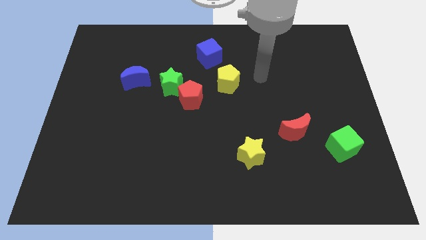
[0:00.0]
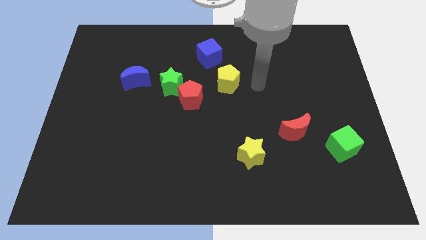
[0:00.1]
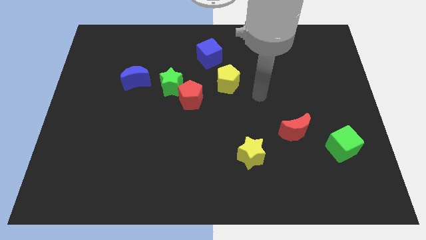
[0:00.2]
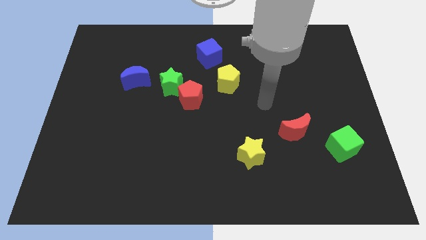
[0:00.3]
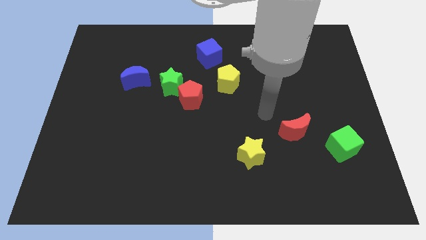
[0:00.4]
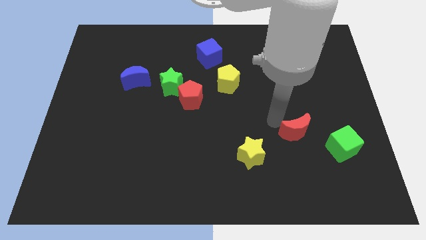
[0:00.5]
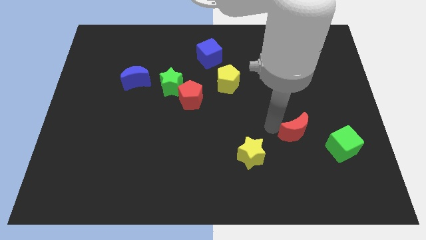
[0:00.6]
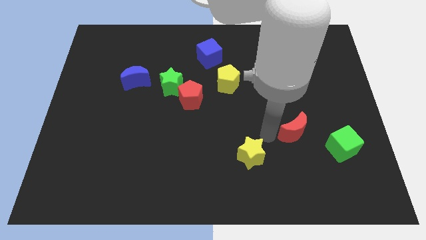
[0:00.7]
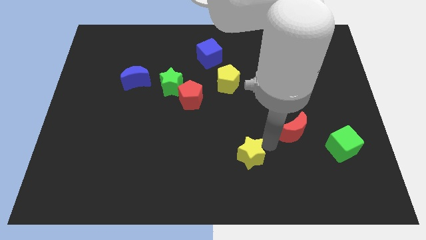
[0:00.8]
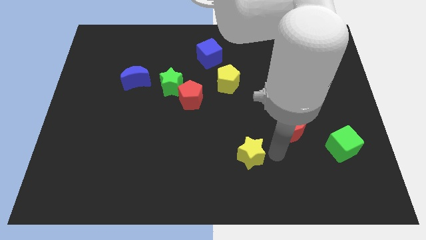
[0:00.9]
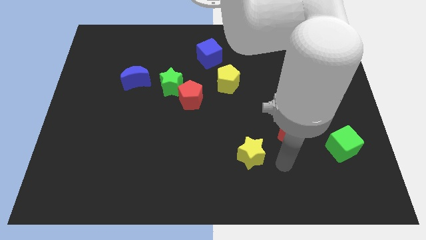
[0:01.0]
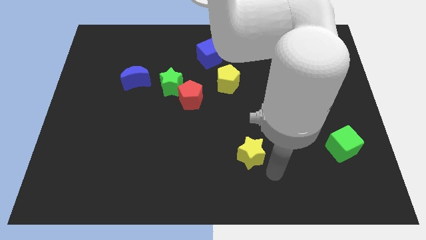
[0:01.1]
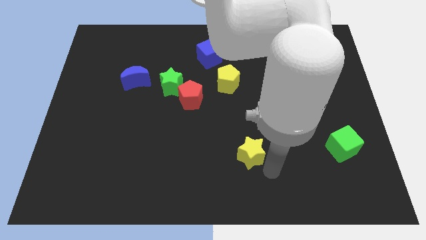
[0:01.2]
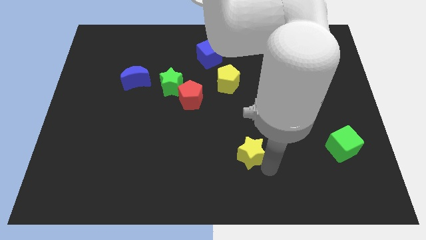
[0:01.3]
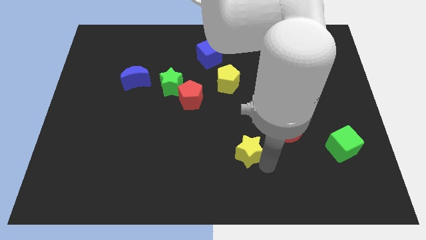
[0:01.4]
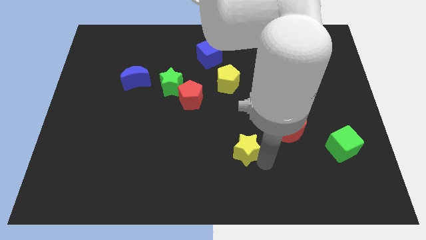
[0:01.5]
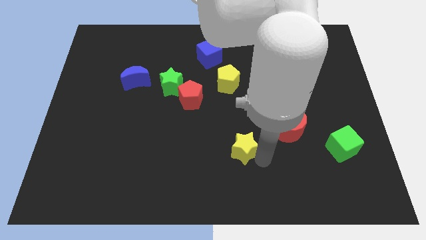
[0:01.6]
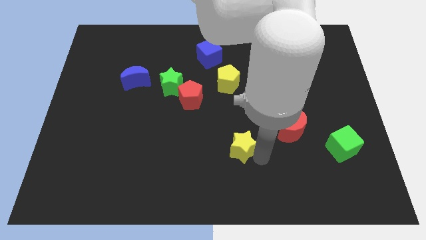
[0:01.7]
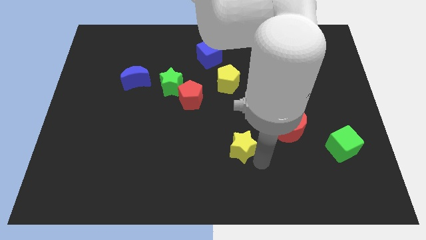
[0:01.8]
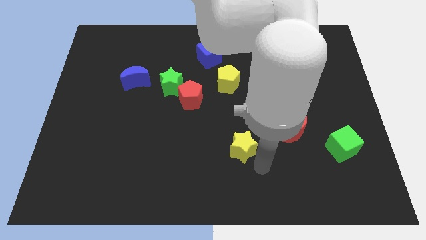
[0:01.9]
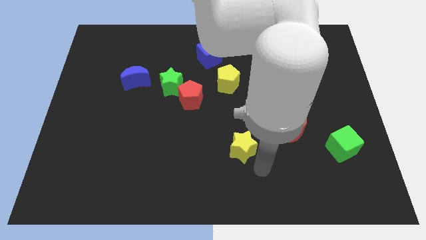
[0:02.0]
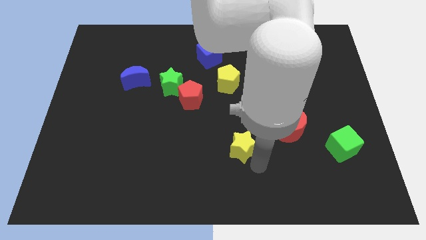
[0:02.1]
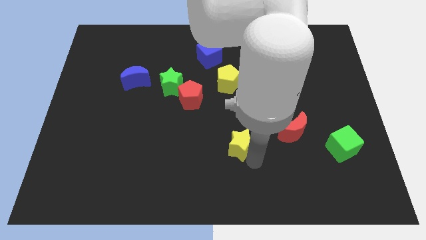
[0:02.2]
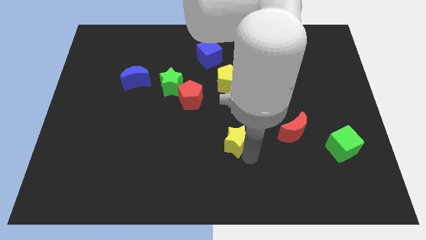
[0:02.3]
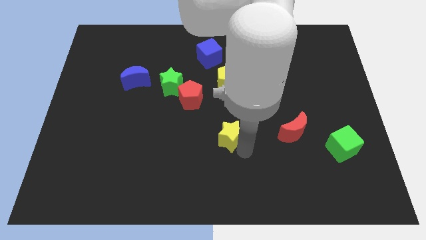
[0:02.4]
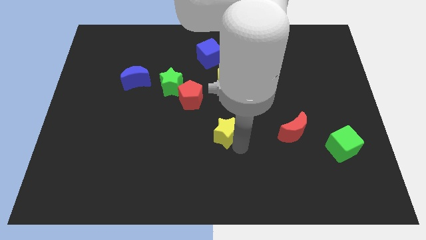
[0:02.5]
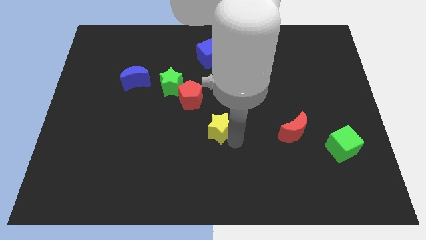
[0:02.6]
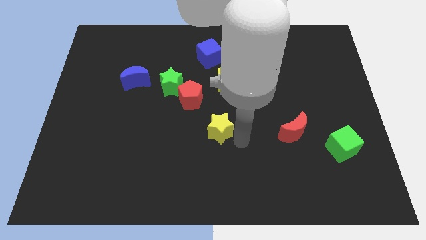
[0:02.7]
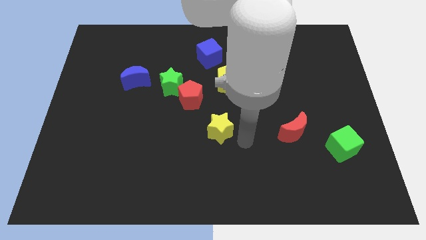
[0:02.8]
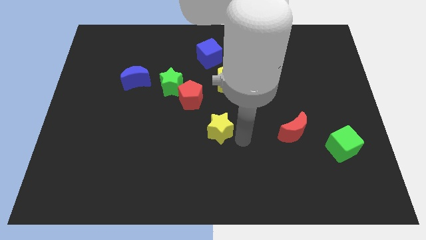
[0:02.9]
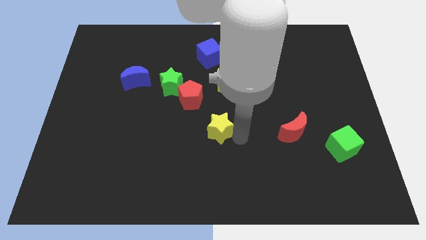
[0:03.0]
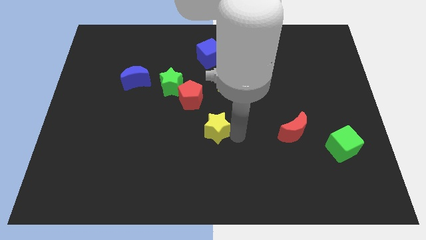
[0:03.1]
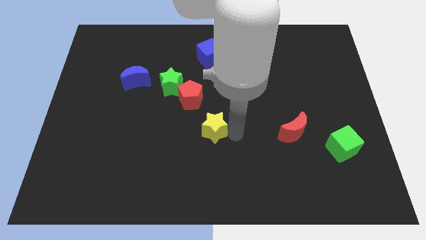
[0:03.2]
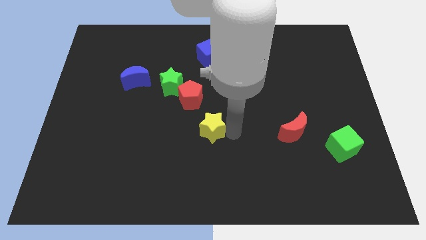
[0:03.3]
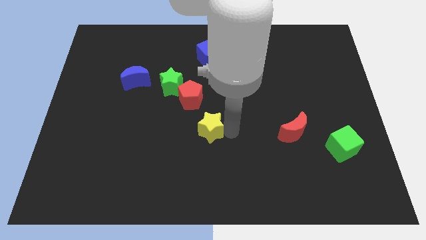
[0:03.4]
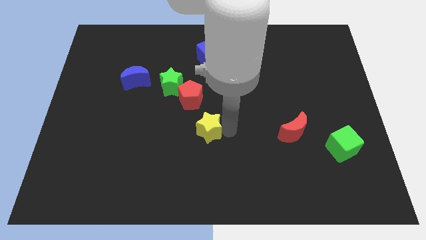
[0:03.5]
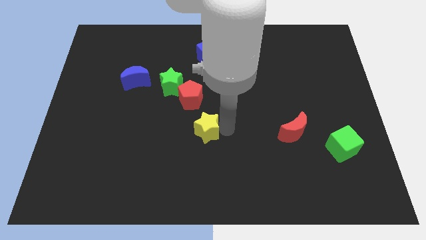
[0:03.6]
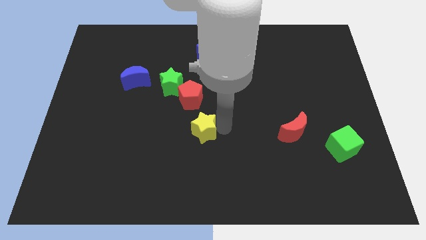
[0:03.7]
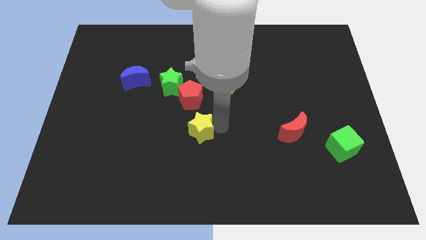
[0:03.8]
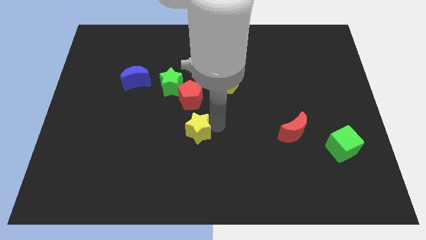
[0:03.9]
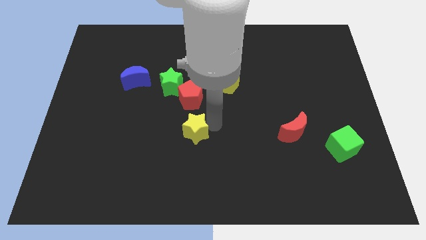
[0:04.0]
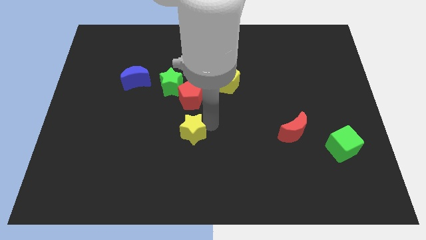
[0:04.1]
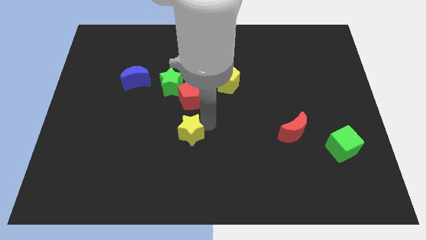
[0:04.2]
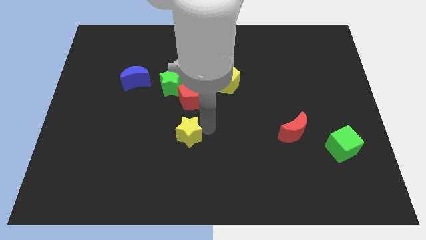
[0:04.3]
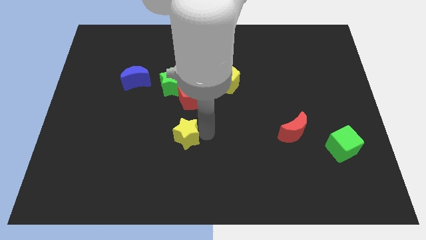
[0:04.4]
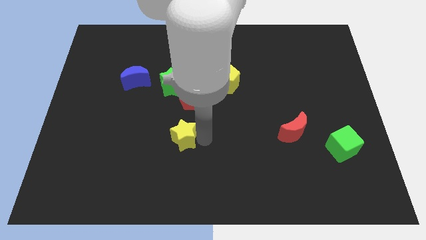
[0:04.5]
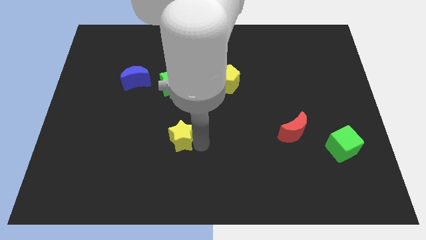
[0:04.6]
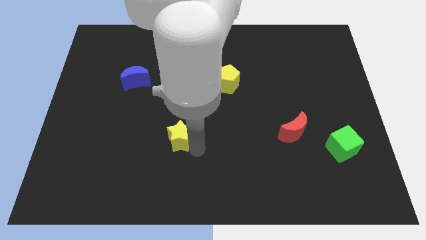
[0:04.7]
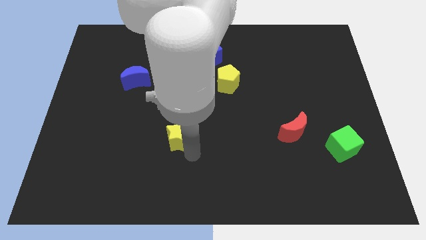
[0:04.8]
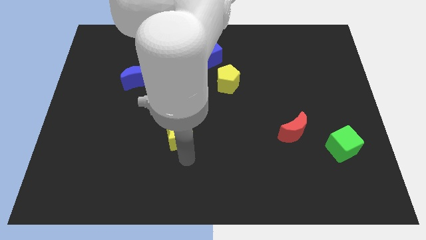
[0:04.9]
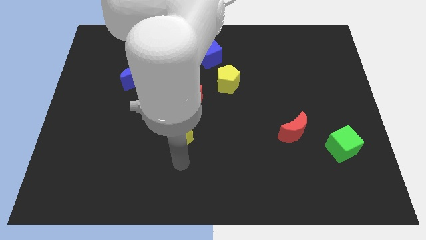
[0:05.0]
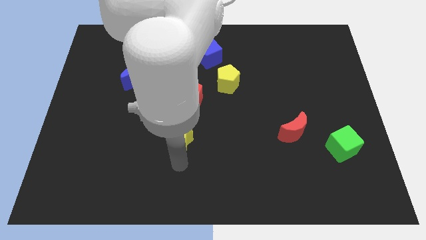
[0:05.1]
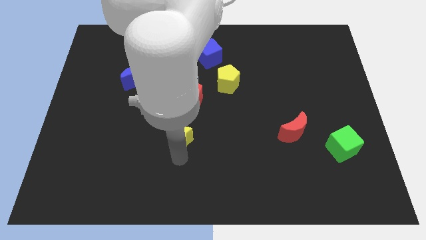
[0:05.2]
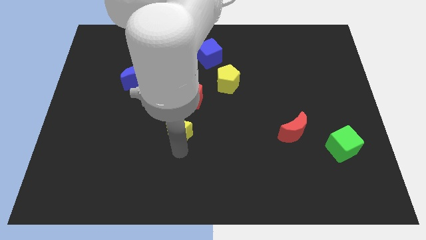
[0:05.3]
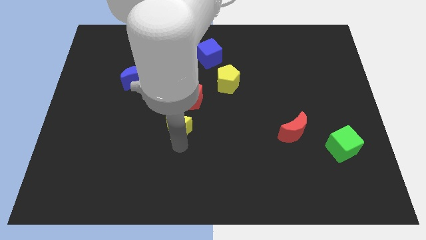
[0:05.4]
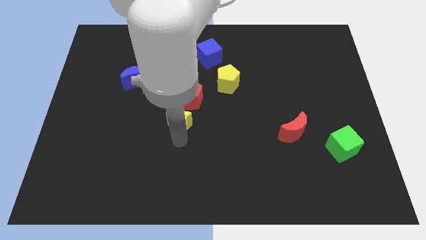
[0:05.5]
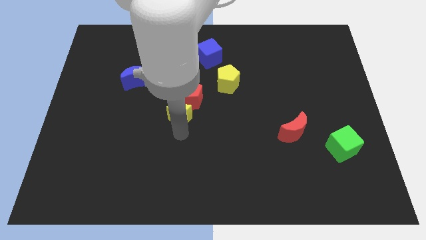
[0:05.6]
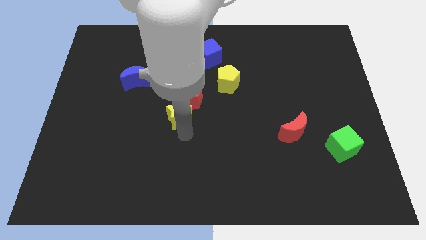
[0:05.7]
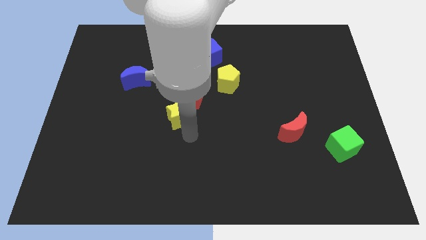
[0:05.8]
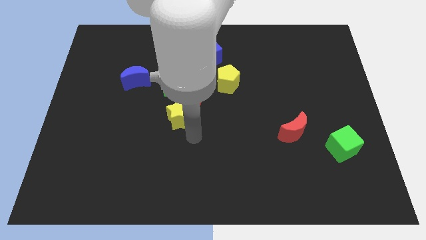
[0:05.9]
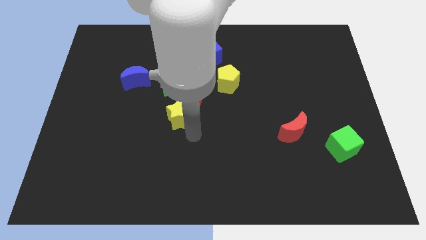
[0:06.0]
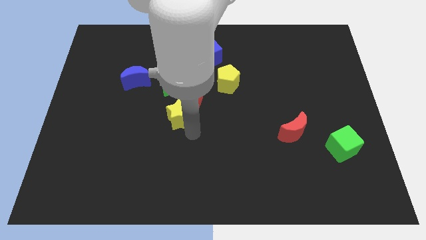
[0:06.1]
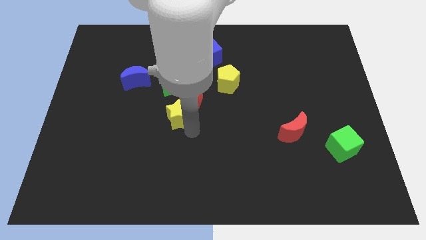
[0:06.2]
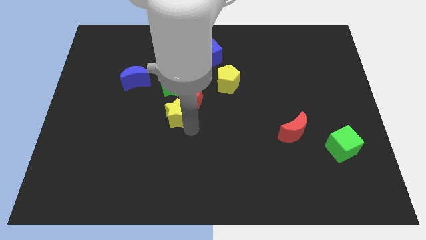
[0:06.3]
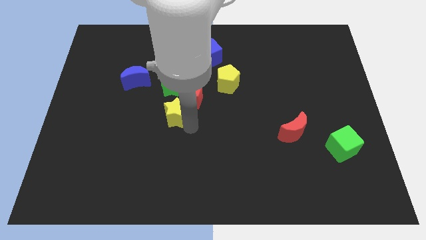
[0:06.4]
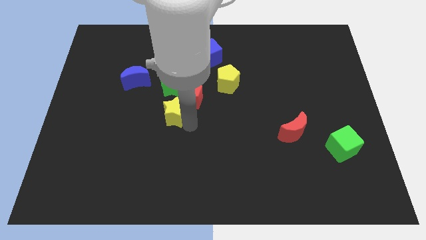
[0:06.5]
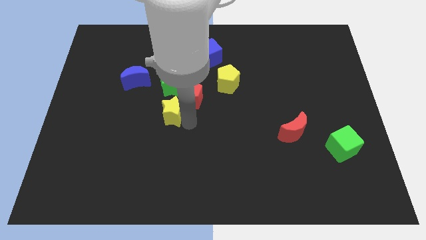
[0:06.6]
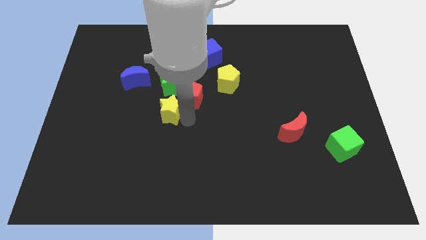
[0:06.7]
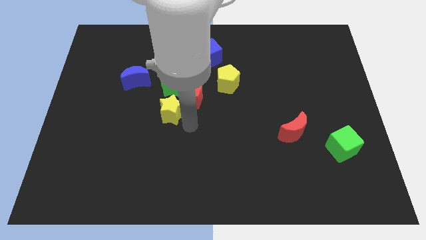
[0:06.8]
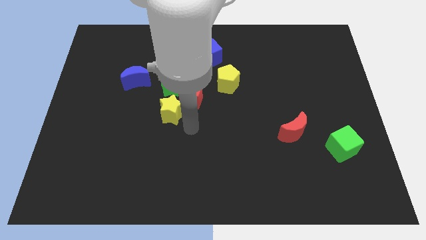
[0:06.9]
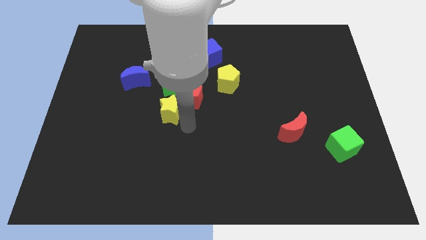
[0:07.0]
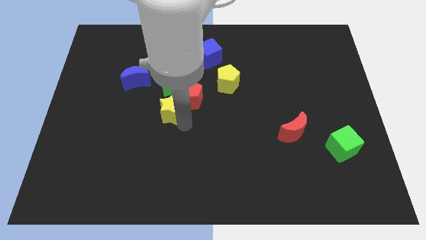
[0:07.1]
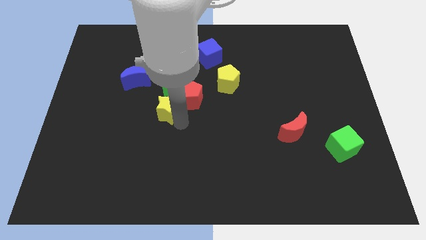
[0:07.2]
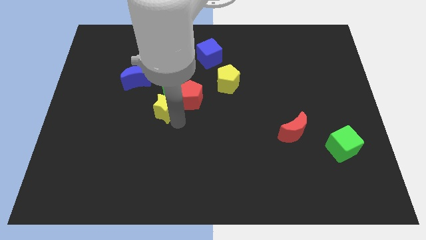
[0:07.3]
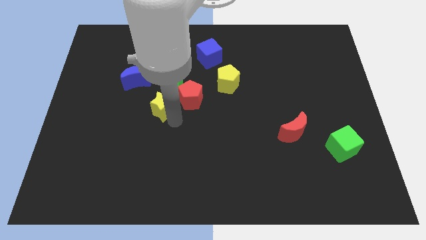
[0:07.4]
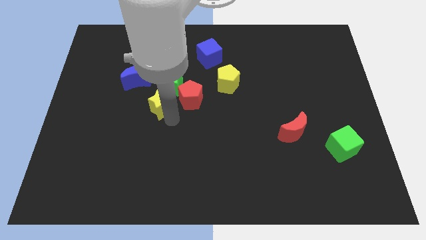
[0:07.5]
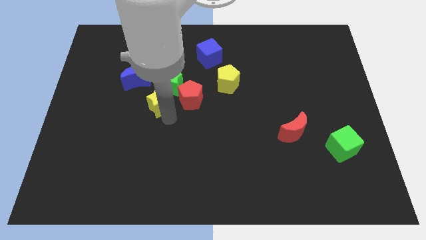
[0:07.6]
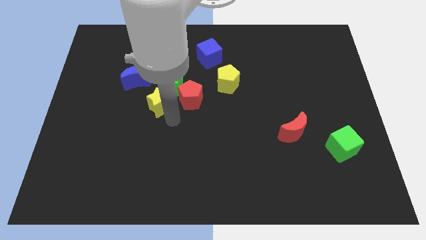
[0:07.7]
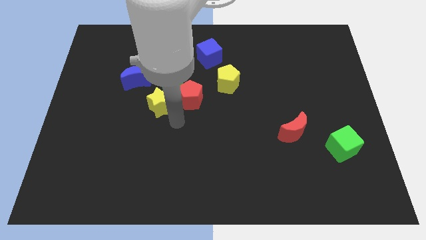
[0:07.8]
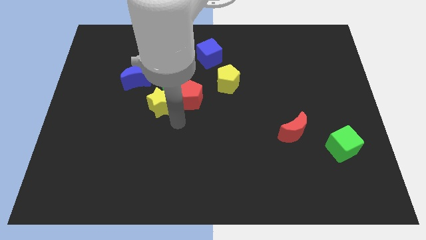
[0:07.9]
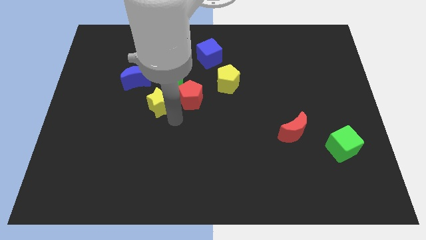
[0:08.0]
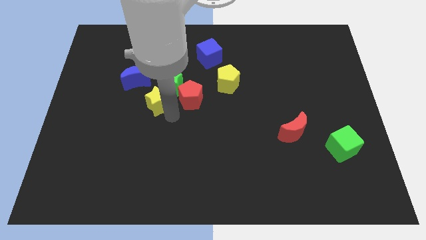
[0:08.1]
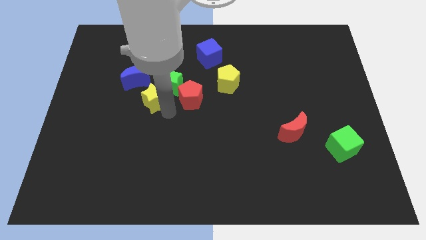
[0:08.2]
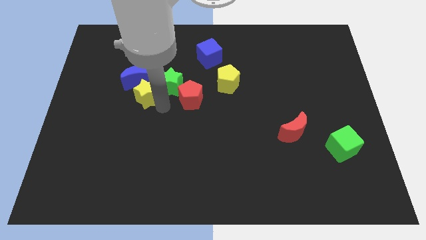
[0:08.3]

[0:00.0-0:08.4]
put the yellow star next to the blue moon
